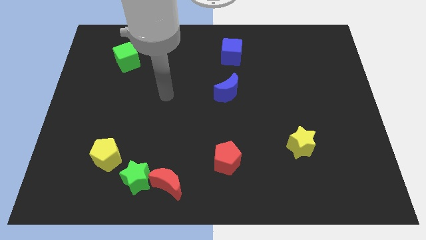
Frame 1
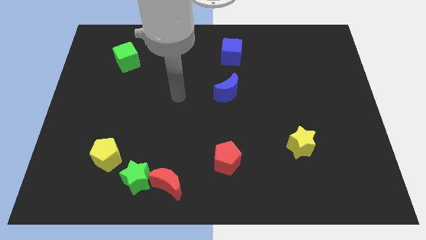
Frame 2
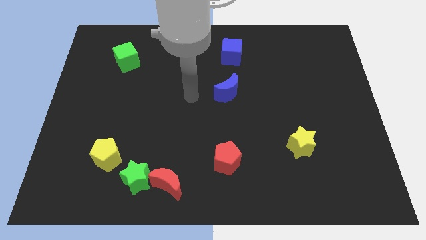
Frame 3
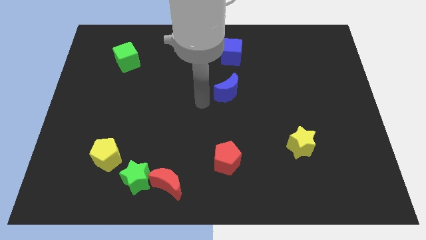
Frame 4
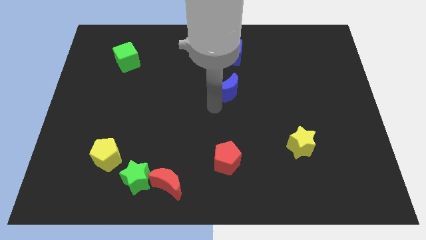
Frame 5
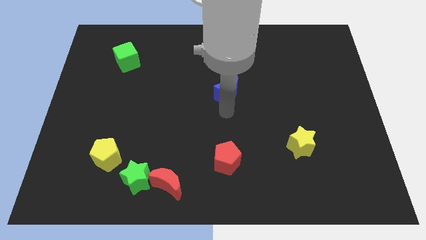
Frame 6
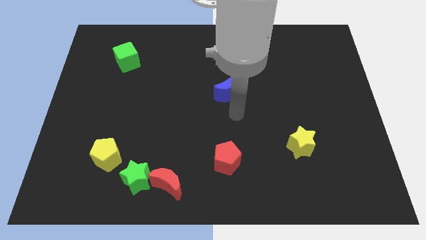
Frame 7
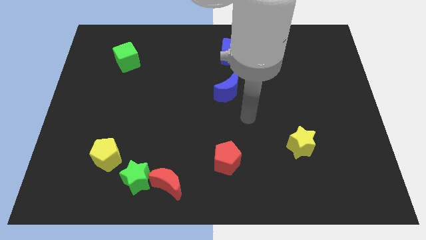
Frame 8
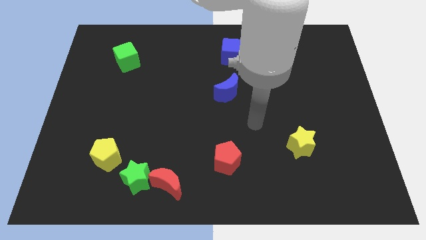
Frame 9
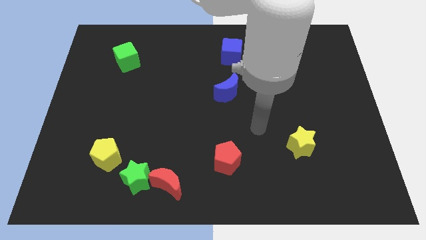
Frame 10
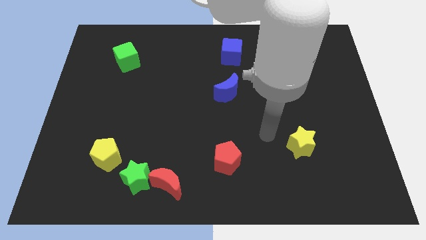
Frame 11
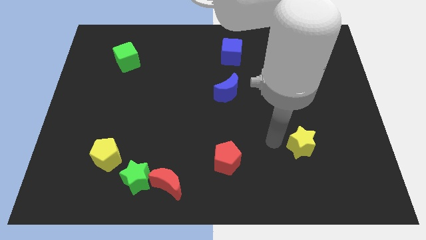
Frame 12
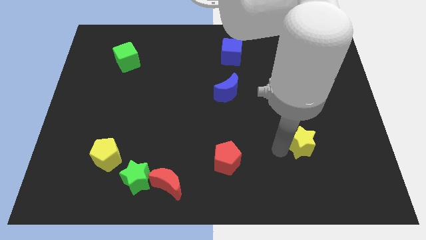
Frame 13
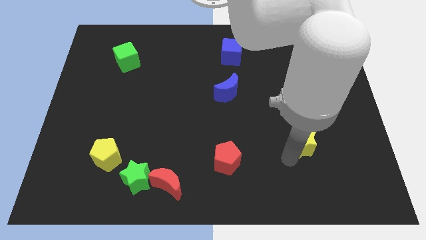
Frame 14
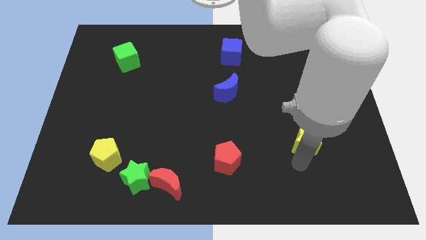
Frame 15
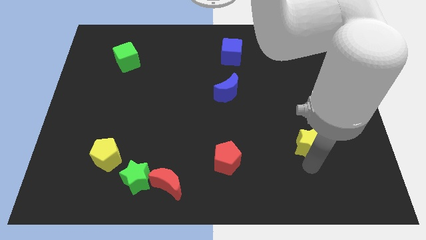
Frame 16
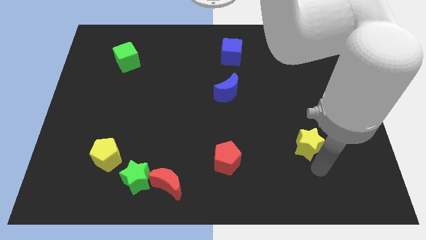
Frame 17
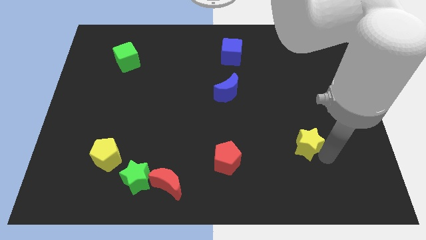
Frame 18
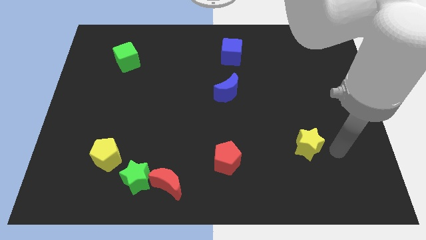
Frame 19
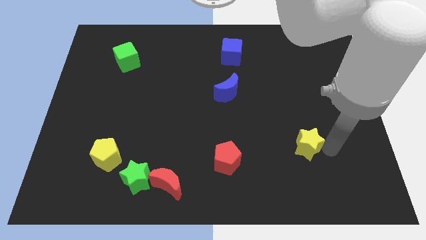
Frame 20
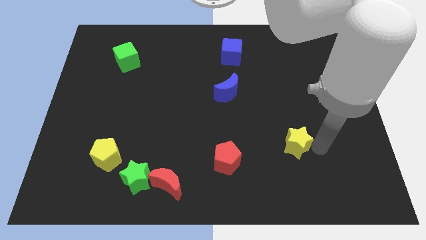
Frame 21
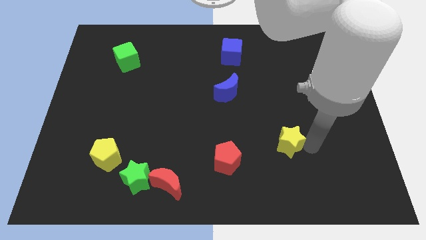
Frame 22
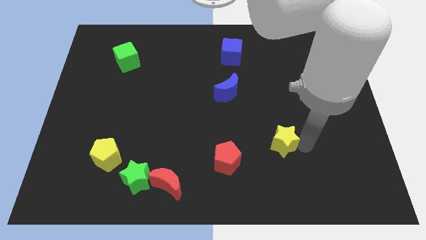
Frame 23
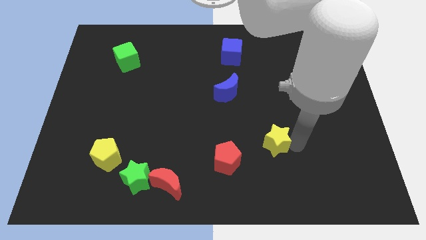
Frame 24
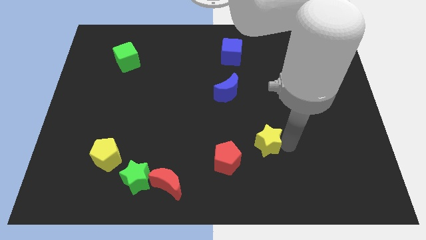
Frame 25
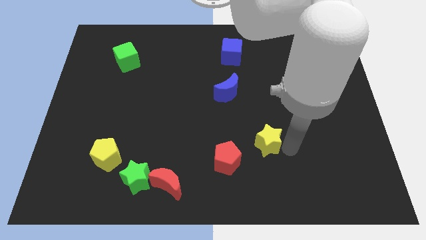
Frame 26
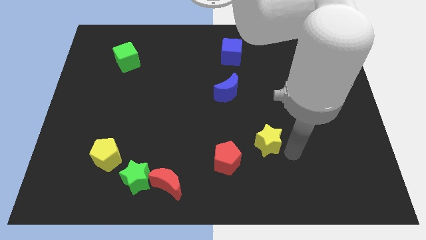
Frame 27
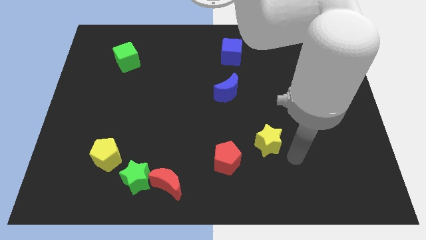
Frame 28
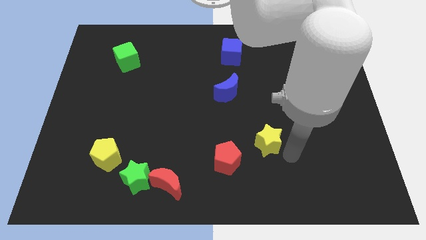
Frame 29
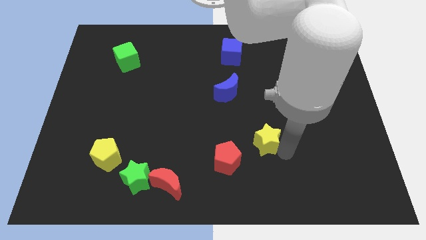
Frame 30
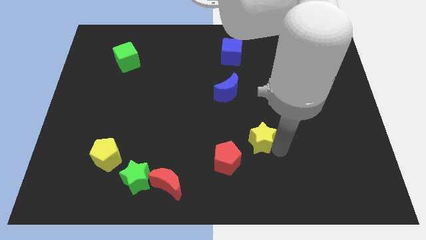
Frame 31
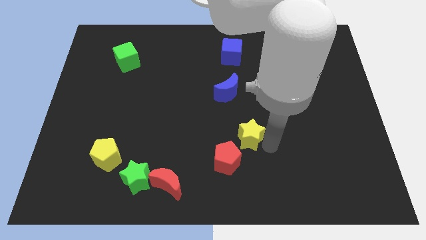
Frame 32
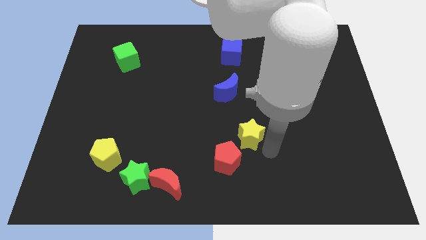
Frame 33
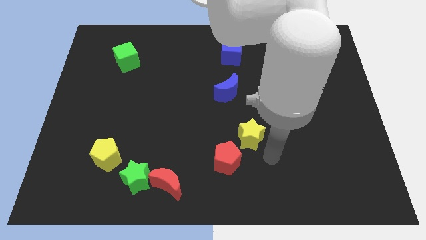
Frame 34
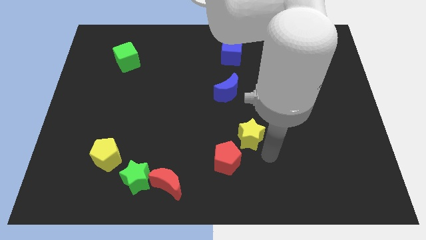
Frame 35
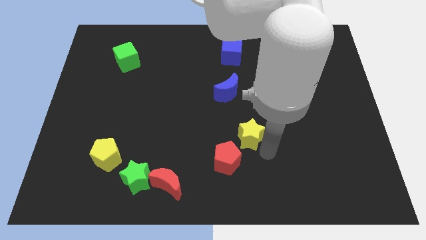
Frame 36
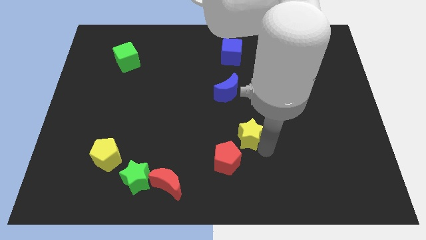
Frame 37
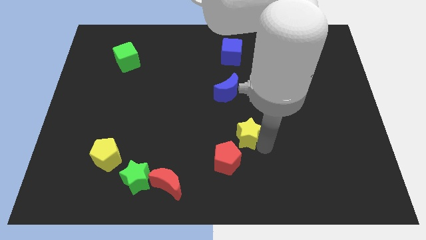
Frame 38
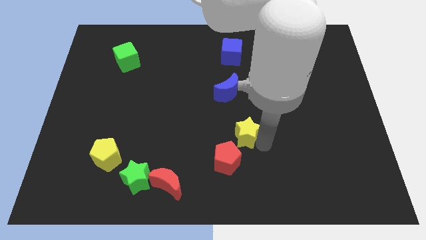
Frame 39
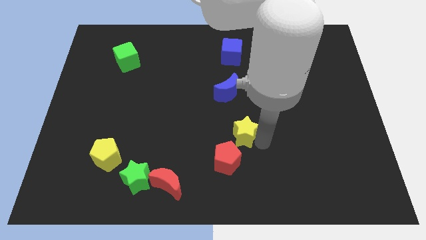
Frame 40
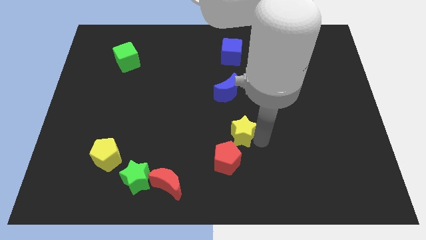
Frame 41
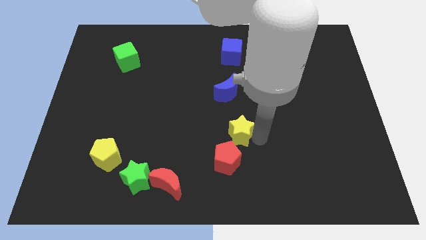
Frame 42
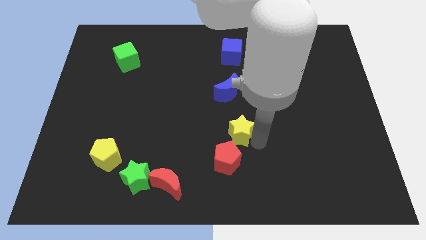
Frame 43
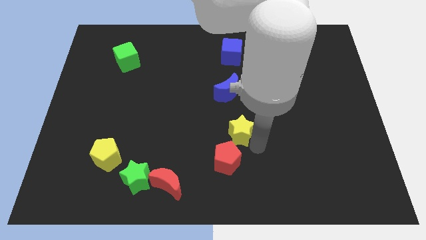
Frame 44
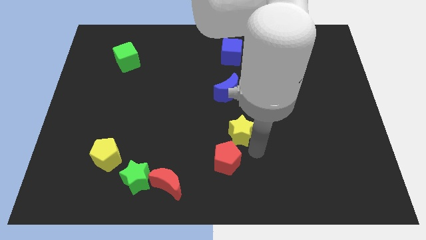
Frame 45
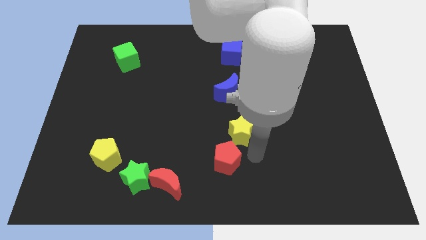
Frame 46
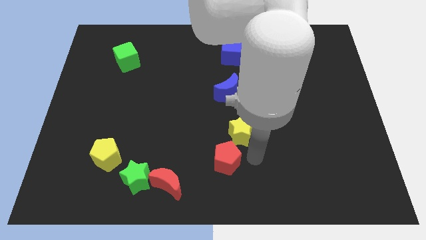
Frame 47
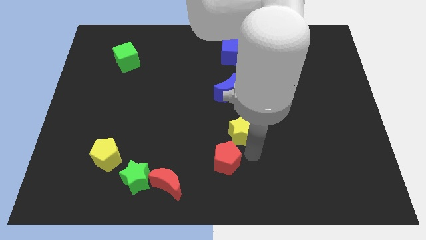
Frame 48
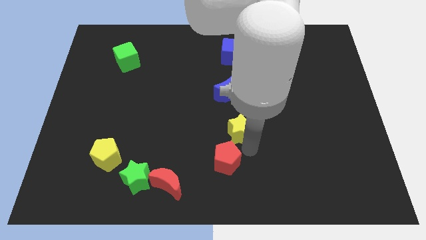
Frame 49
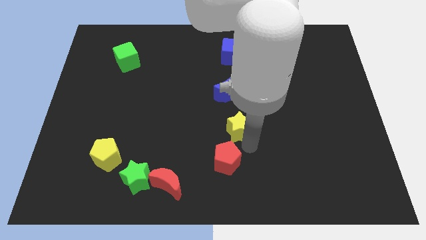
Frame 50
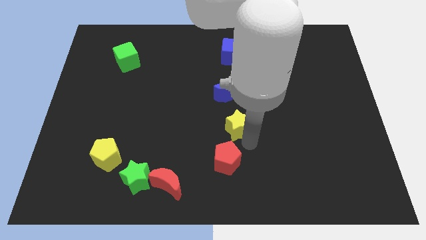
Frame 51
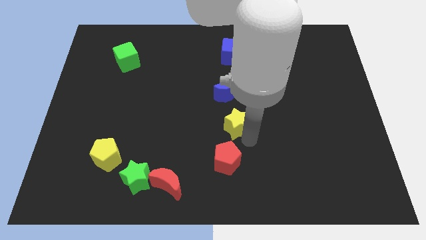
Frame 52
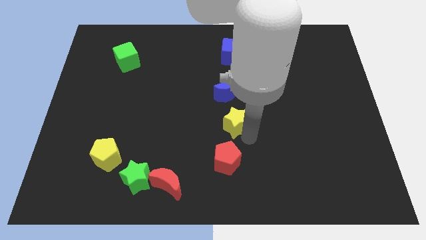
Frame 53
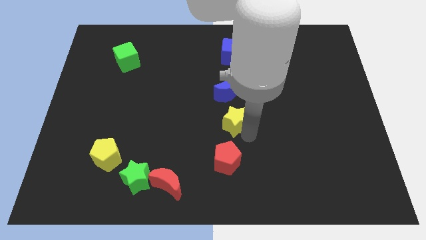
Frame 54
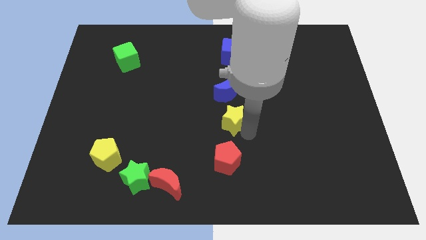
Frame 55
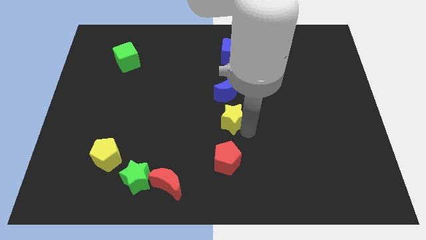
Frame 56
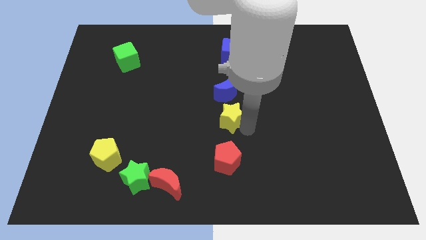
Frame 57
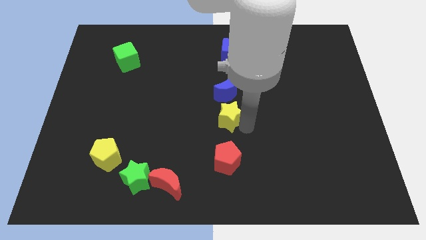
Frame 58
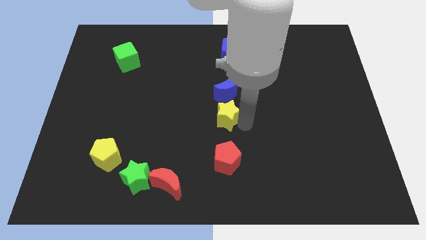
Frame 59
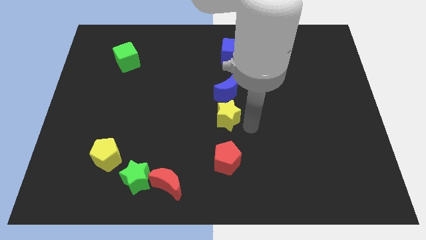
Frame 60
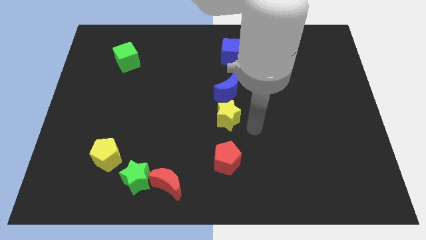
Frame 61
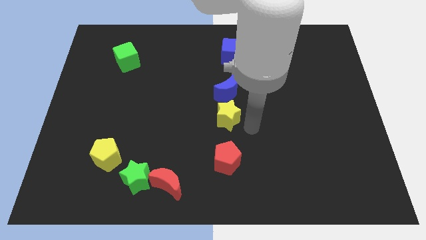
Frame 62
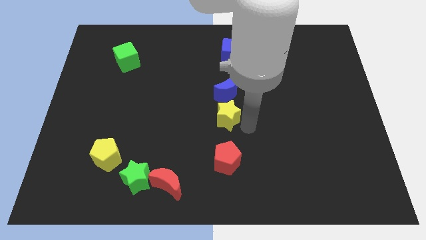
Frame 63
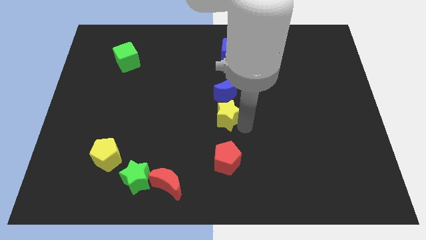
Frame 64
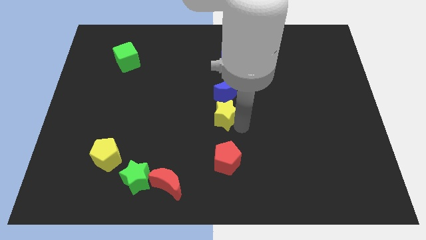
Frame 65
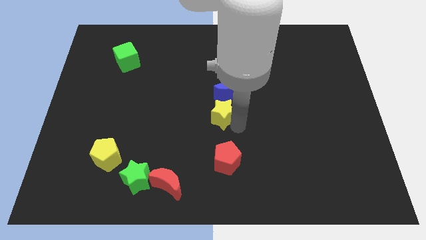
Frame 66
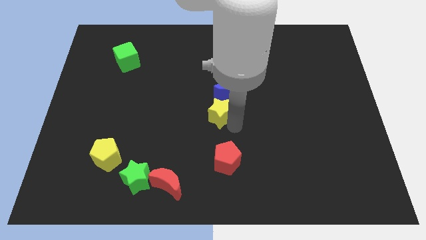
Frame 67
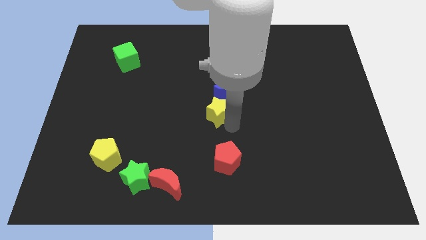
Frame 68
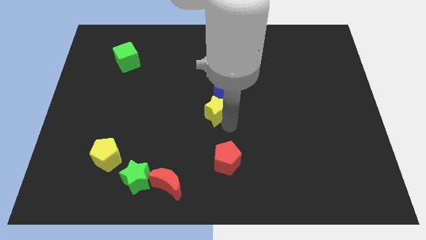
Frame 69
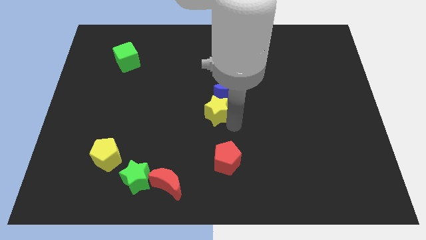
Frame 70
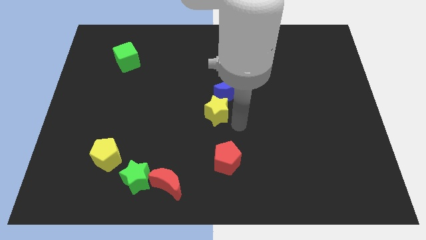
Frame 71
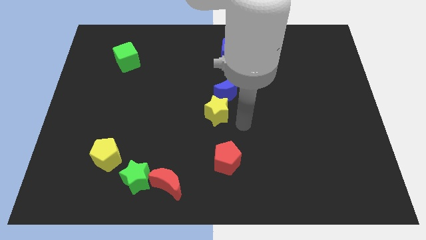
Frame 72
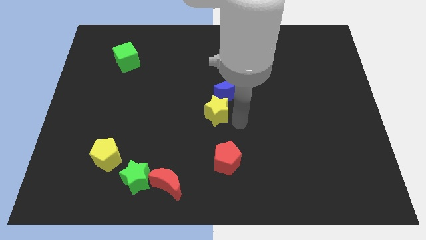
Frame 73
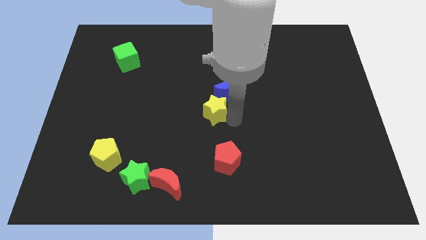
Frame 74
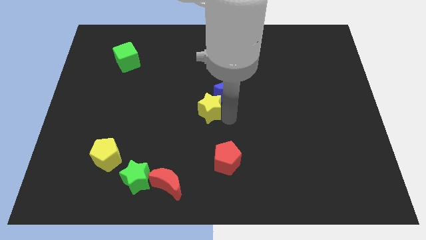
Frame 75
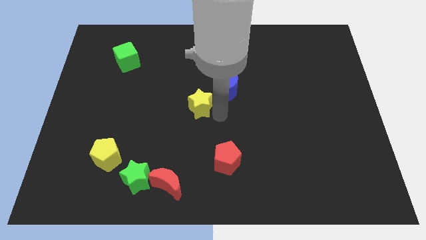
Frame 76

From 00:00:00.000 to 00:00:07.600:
slide the yellow star to the left side of the blue moon
